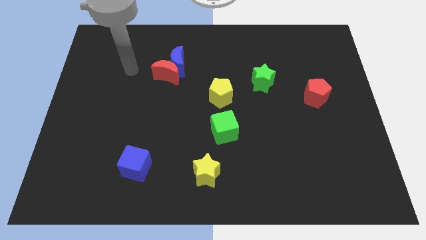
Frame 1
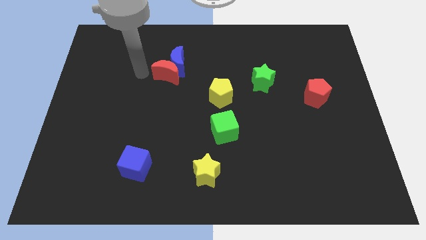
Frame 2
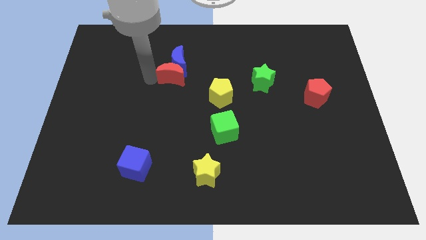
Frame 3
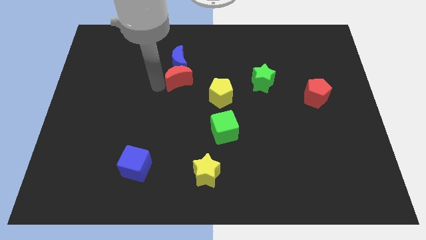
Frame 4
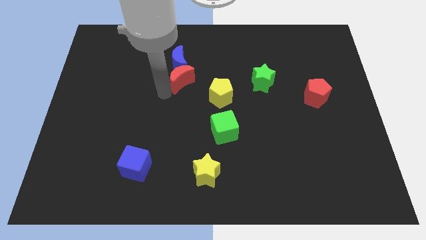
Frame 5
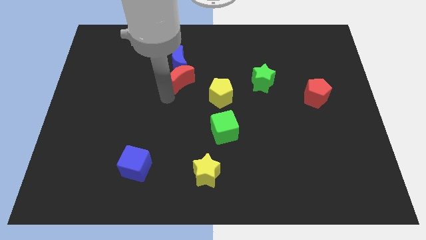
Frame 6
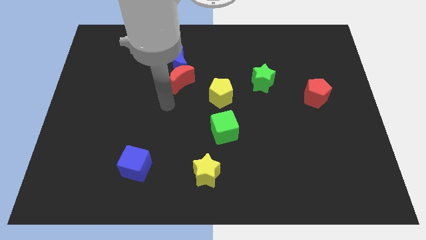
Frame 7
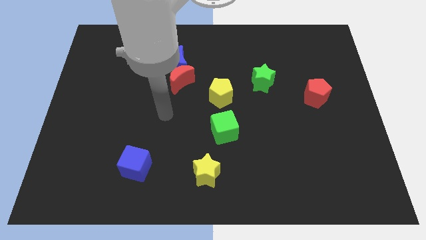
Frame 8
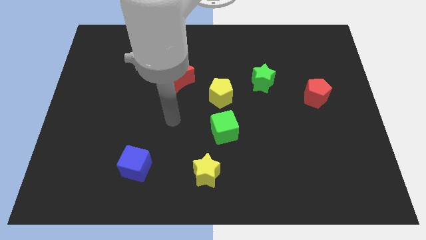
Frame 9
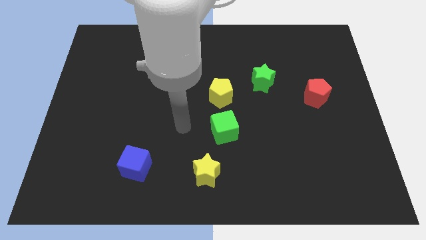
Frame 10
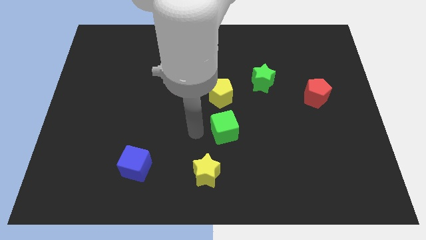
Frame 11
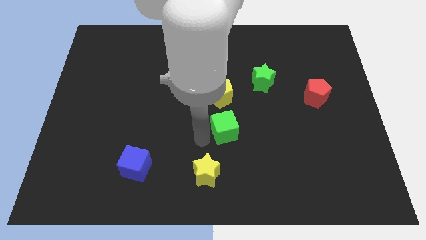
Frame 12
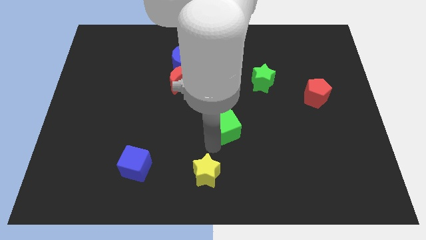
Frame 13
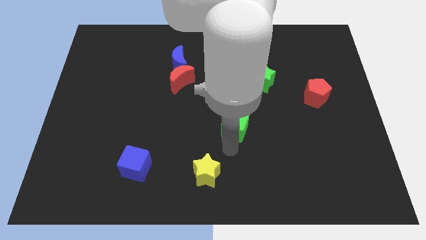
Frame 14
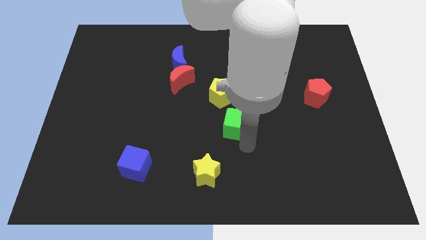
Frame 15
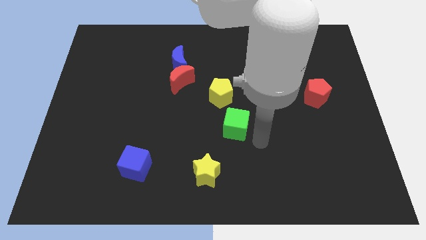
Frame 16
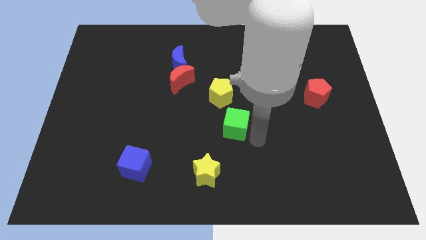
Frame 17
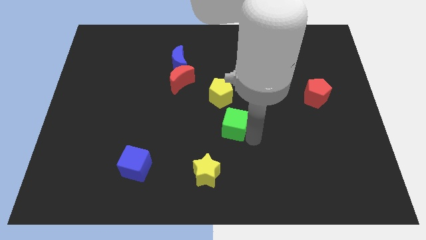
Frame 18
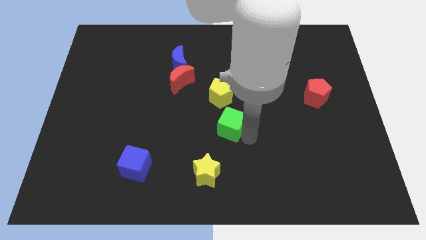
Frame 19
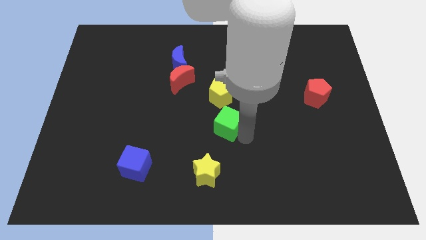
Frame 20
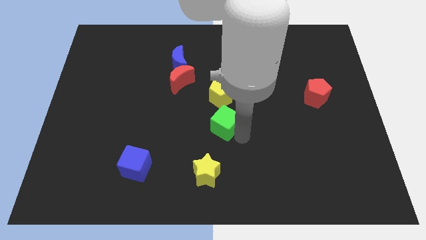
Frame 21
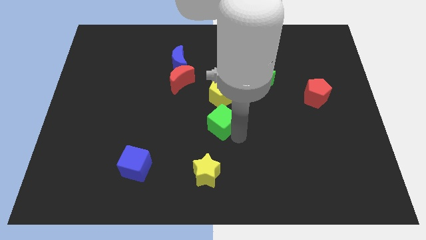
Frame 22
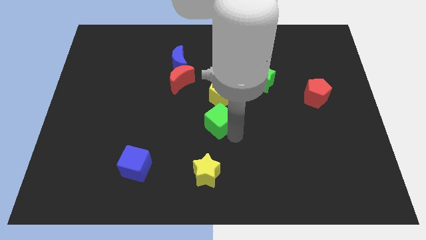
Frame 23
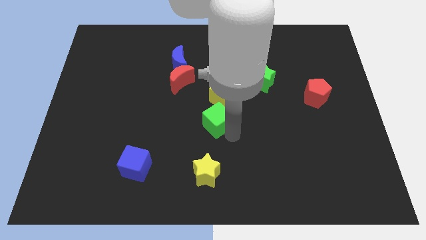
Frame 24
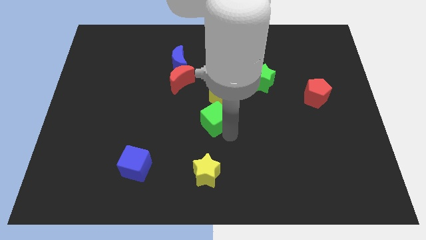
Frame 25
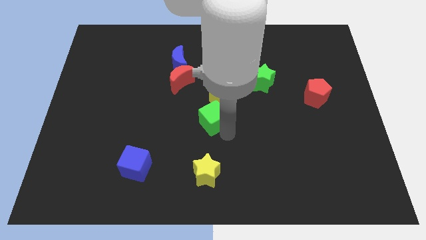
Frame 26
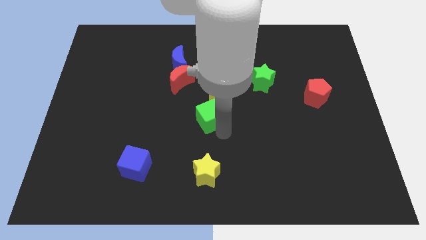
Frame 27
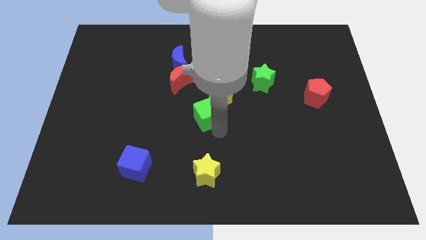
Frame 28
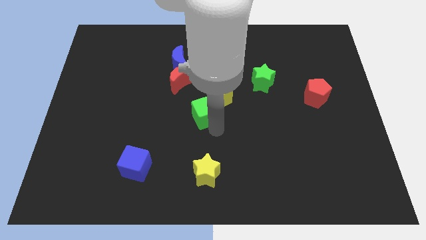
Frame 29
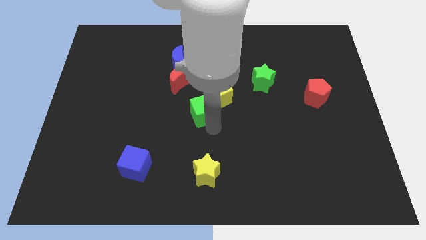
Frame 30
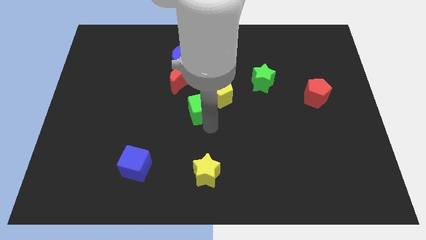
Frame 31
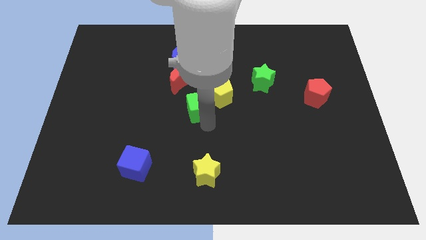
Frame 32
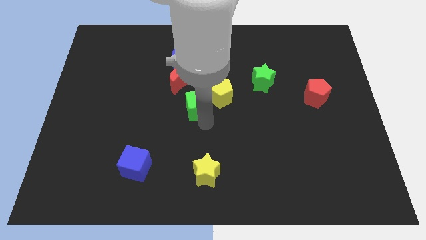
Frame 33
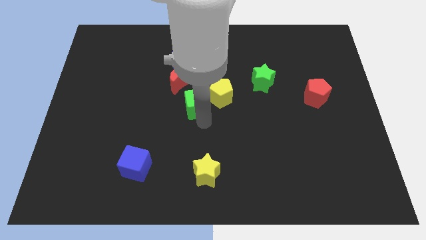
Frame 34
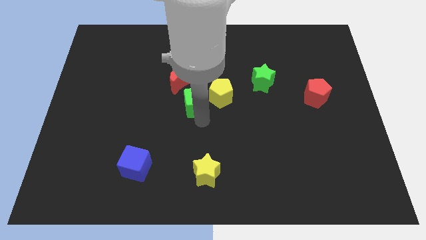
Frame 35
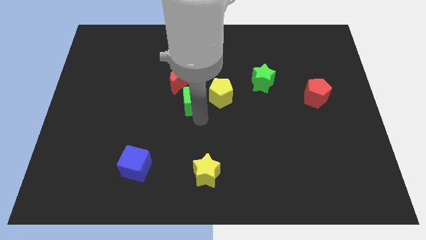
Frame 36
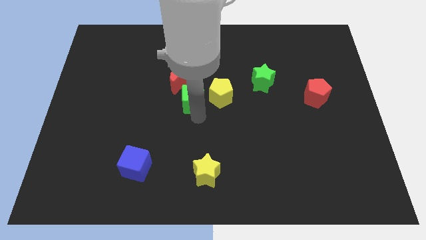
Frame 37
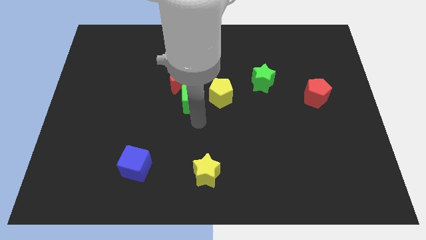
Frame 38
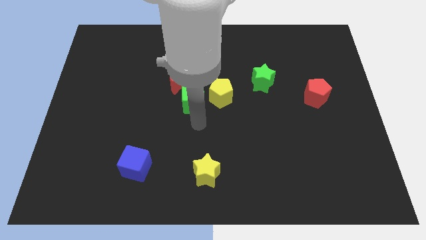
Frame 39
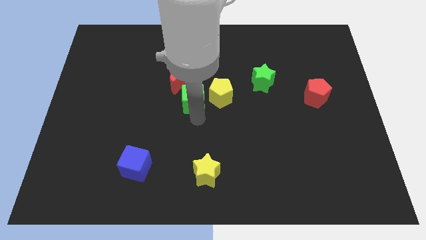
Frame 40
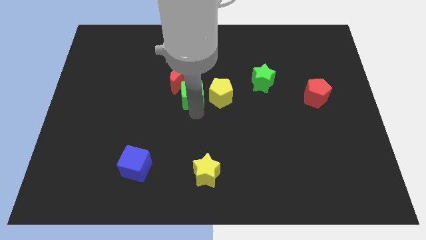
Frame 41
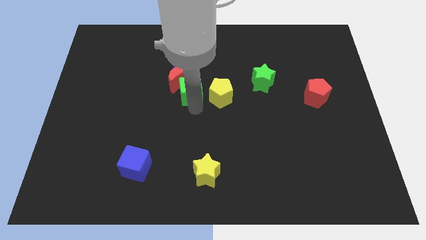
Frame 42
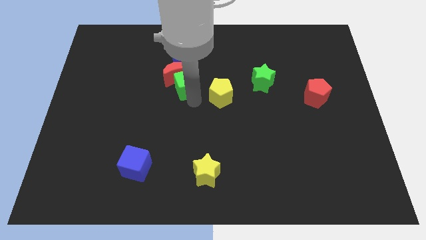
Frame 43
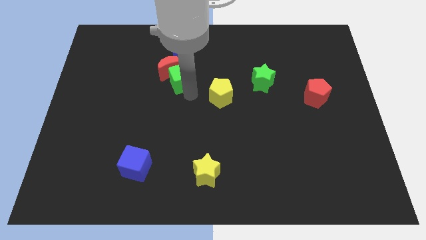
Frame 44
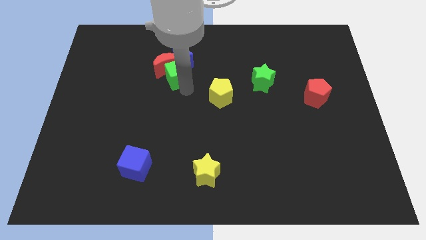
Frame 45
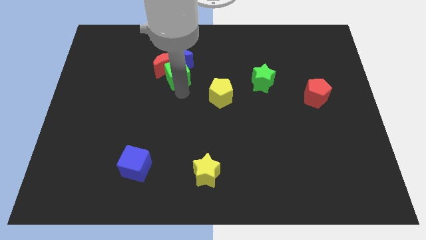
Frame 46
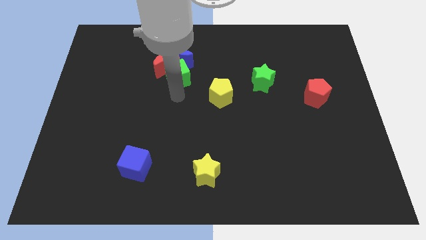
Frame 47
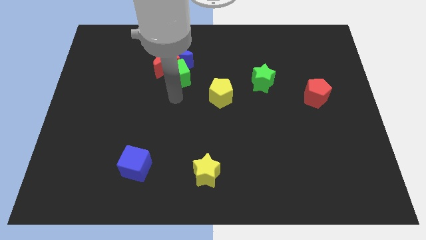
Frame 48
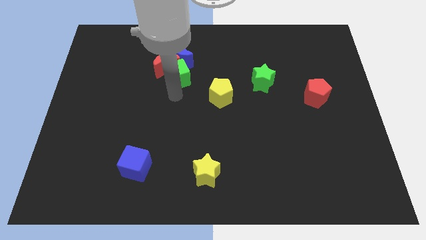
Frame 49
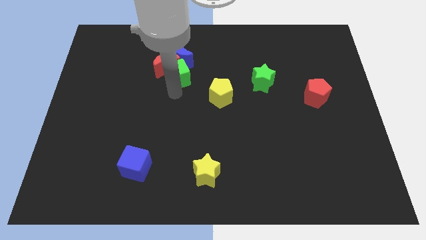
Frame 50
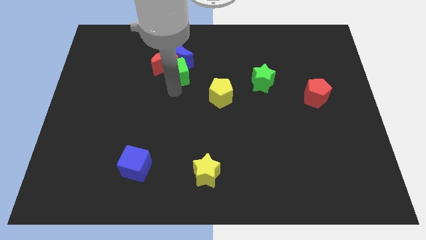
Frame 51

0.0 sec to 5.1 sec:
move the green cube to the blue moon

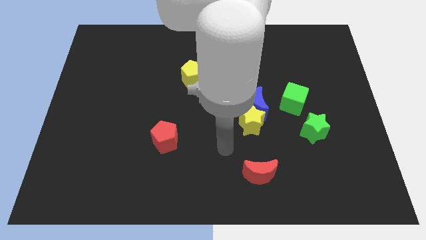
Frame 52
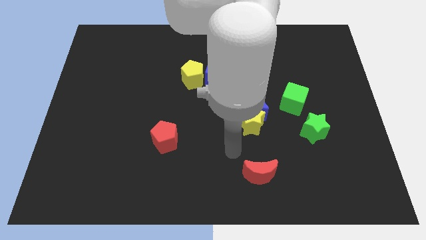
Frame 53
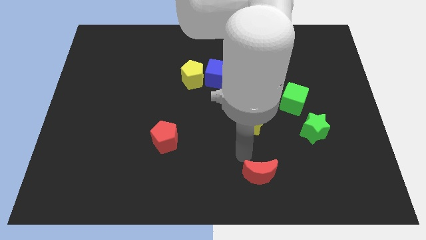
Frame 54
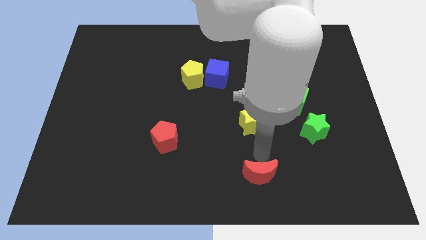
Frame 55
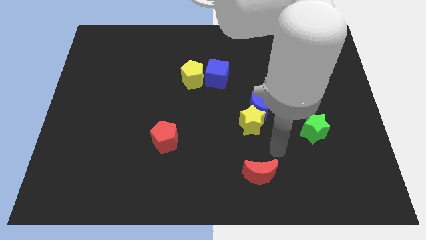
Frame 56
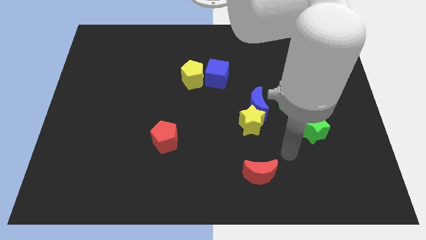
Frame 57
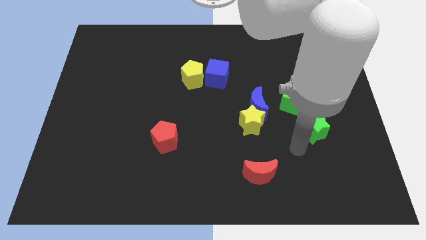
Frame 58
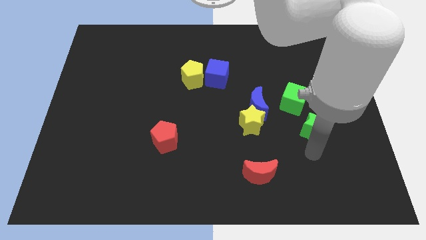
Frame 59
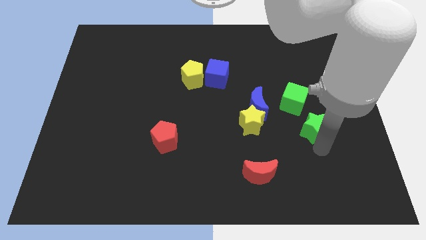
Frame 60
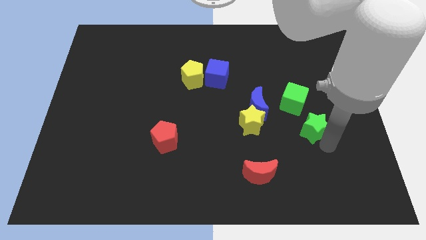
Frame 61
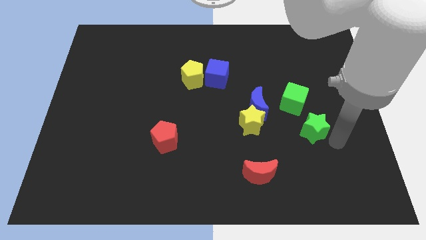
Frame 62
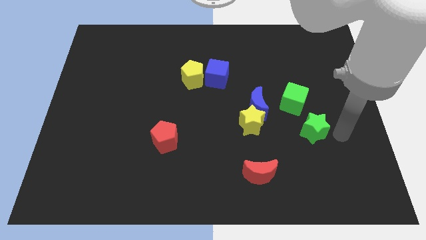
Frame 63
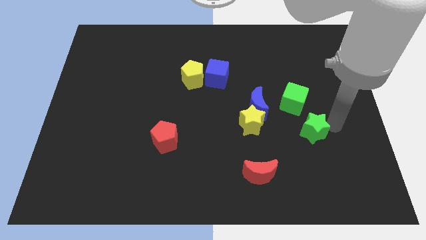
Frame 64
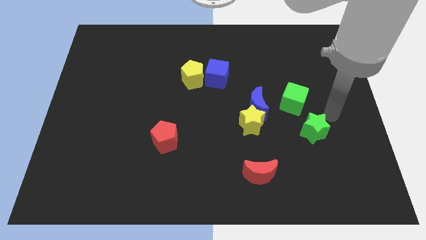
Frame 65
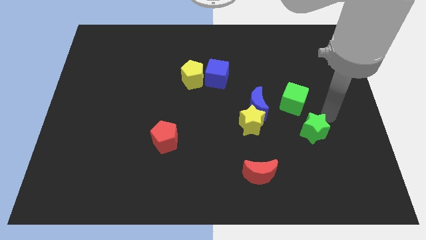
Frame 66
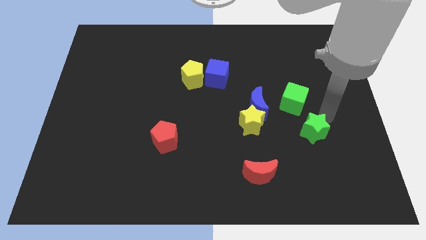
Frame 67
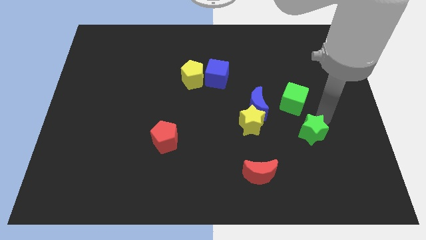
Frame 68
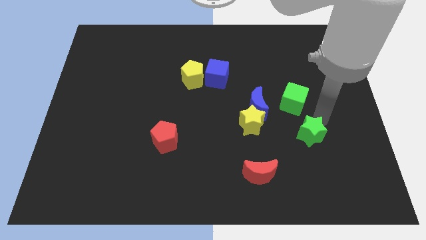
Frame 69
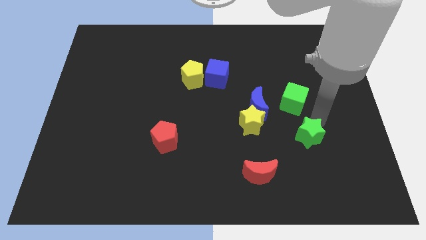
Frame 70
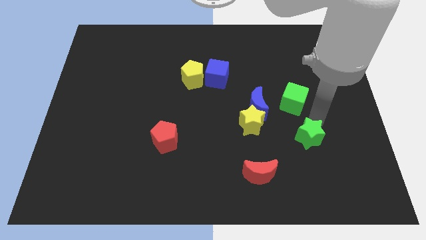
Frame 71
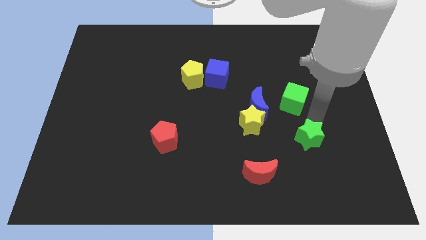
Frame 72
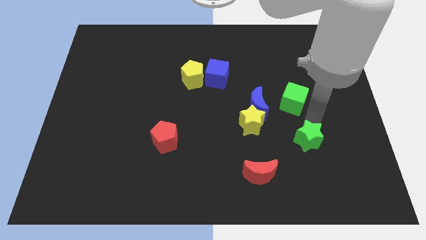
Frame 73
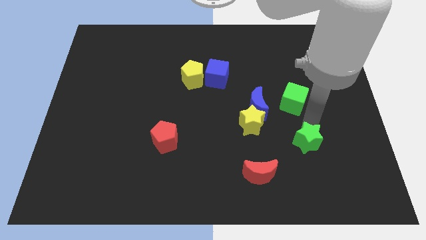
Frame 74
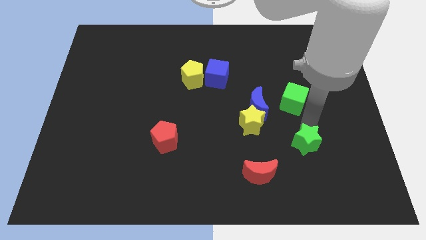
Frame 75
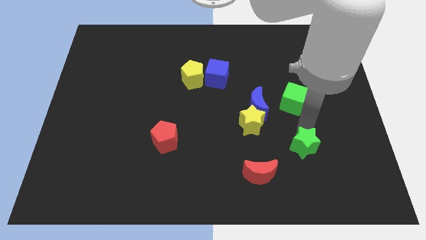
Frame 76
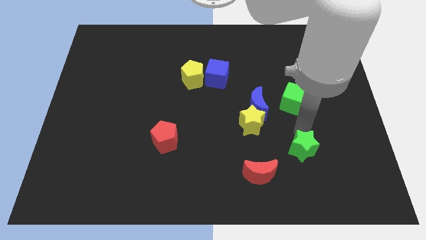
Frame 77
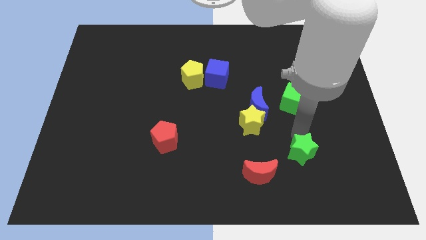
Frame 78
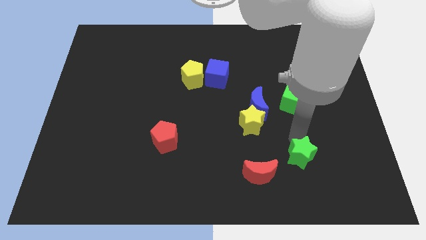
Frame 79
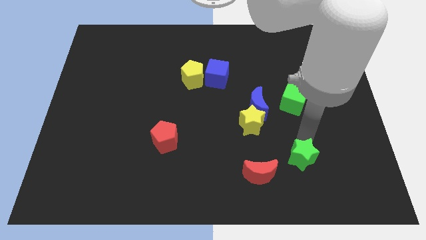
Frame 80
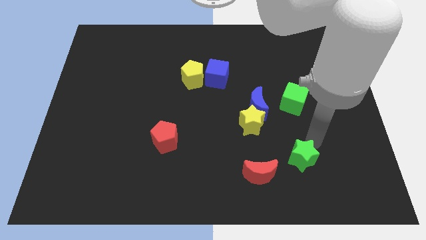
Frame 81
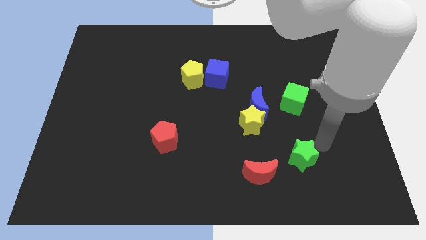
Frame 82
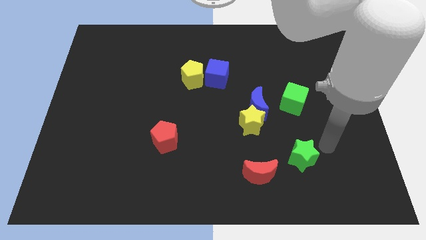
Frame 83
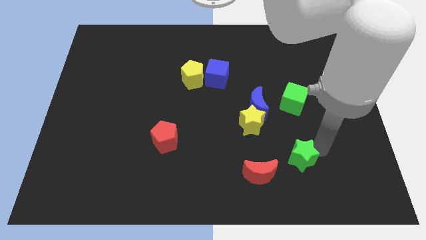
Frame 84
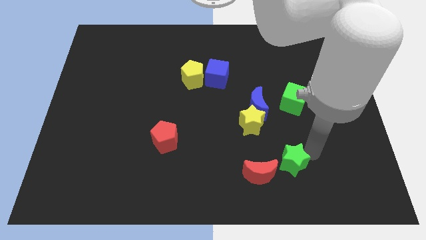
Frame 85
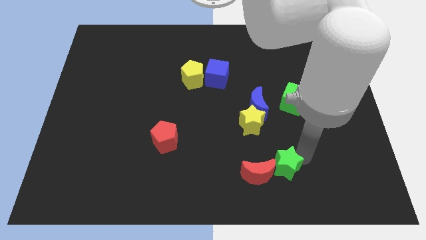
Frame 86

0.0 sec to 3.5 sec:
move the green star towards the red moon
